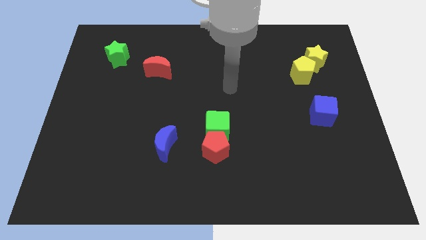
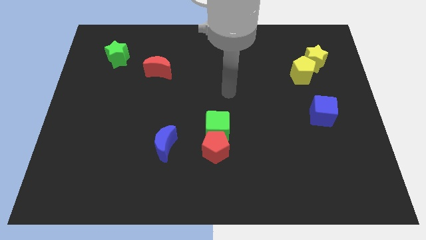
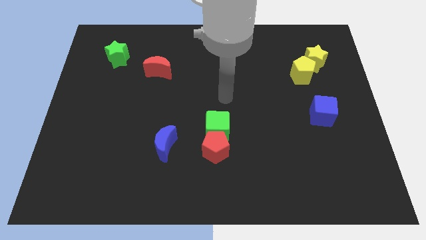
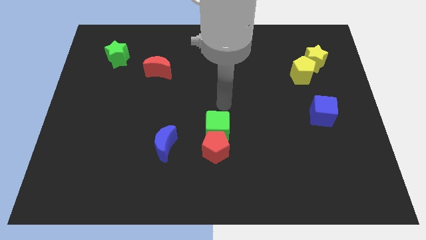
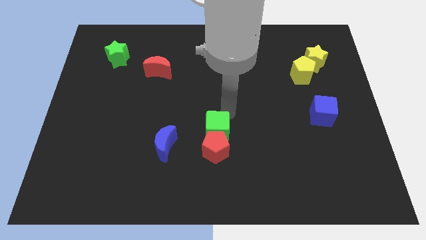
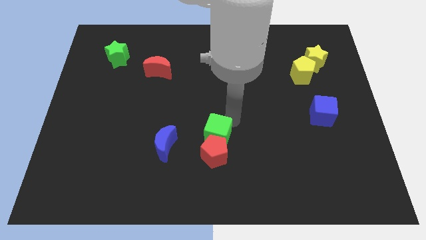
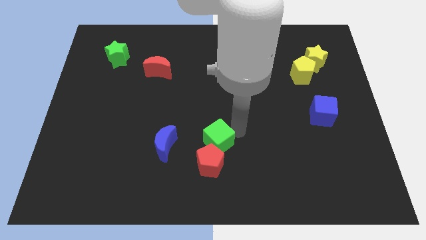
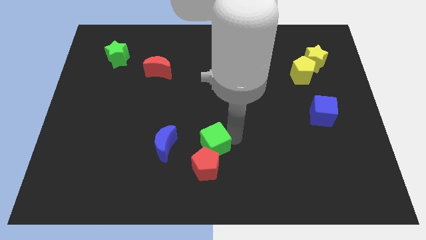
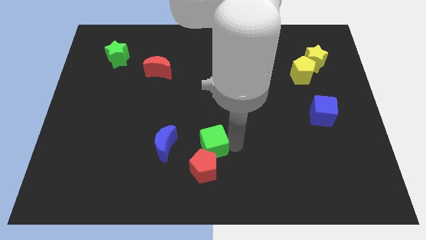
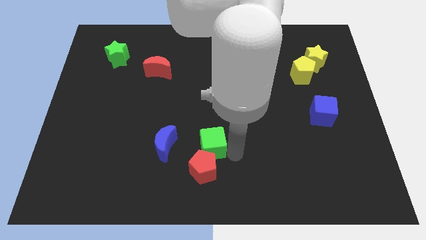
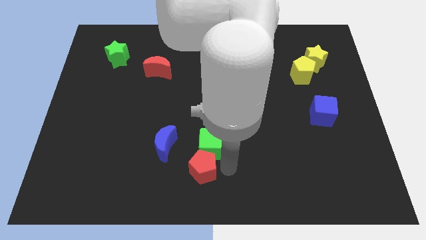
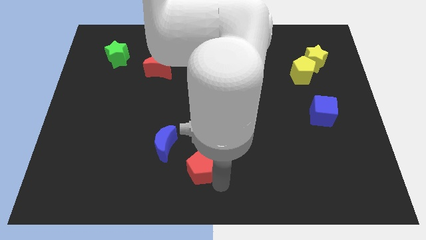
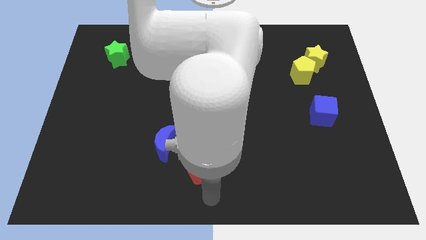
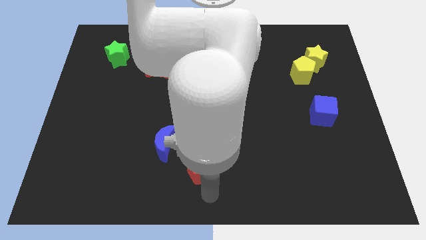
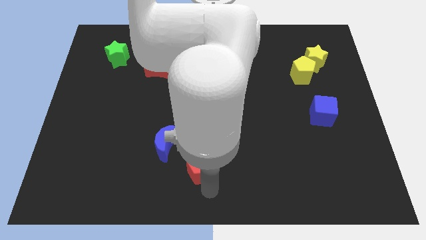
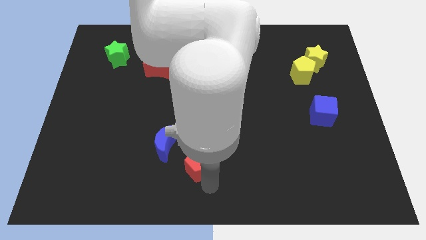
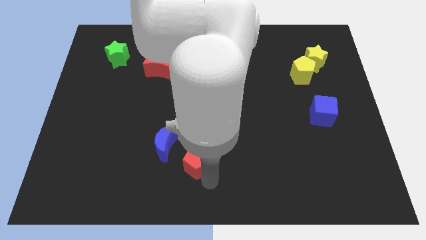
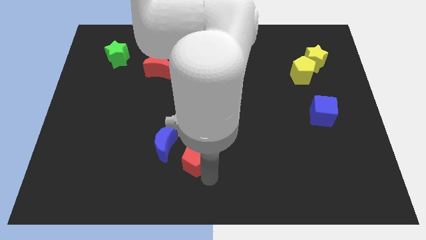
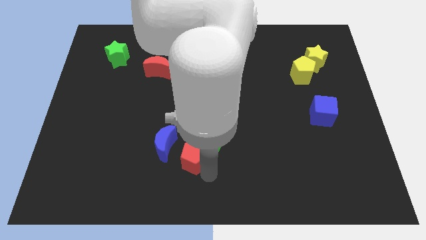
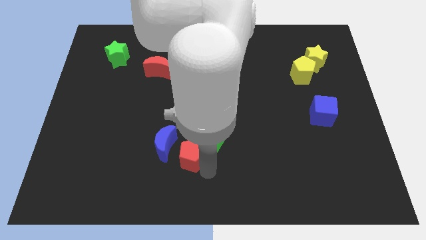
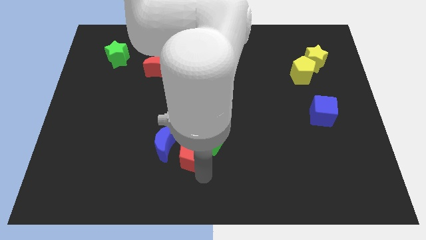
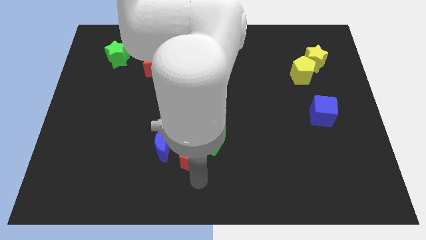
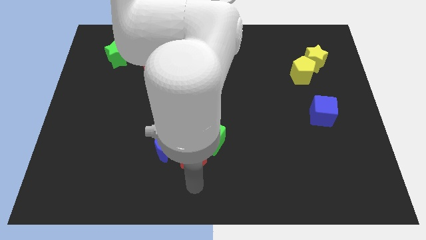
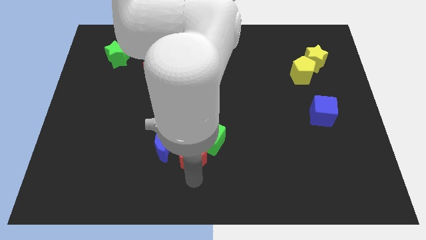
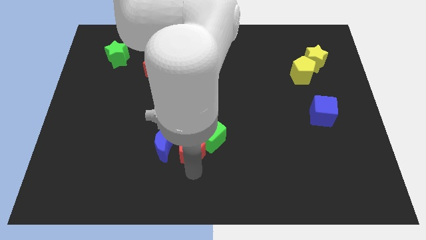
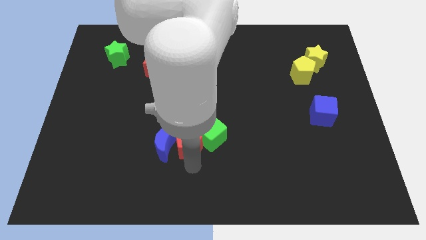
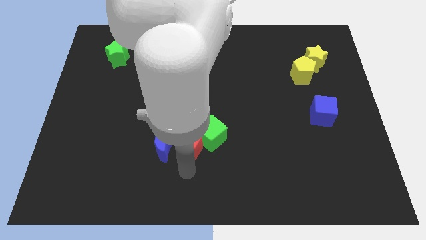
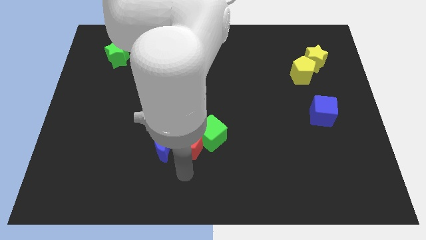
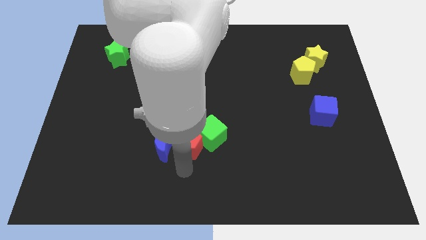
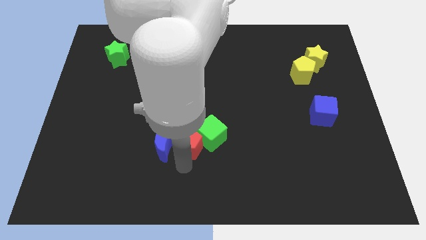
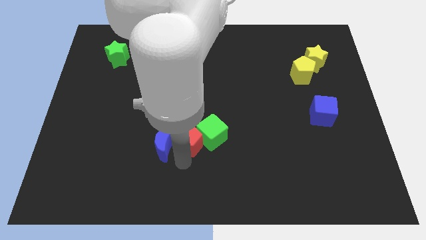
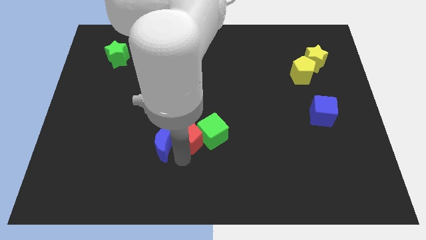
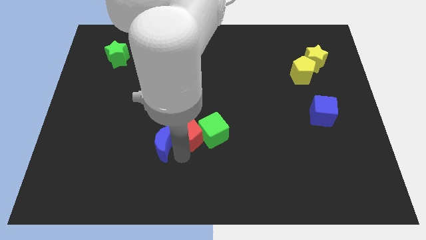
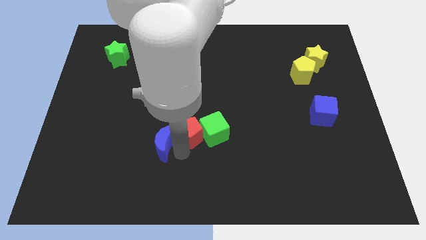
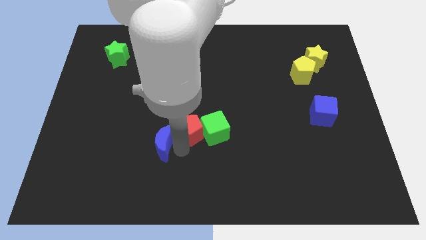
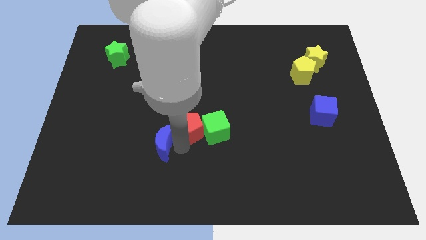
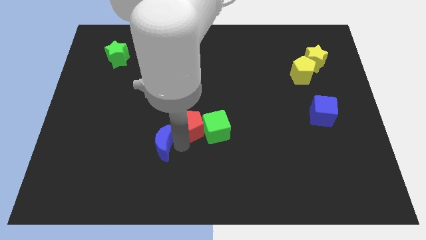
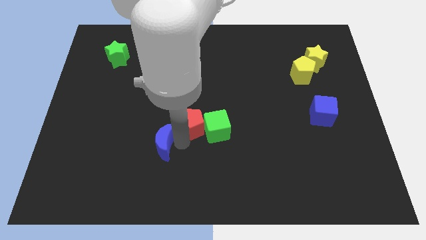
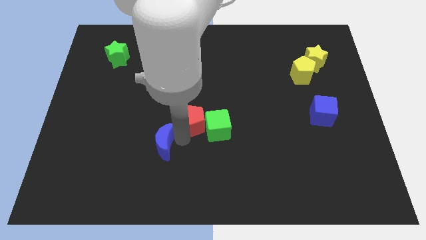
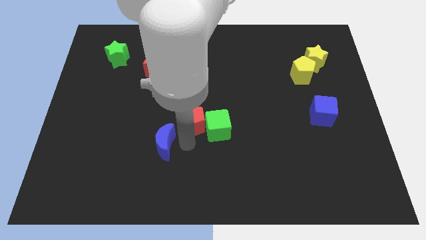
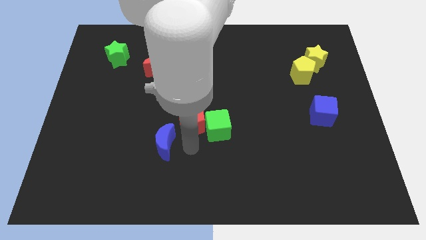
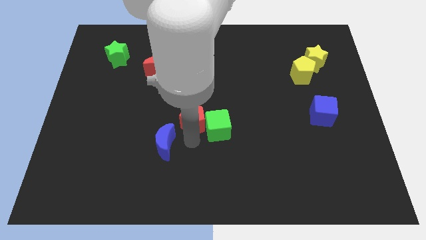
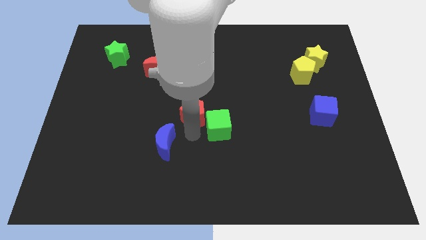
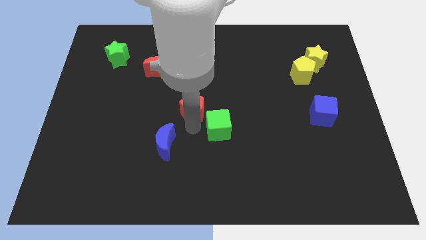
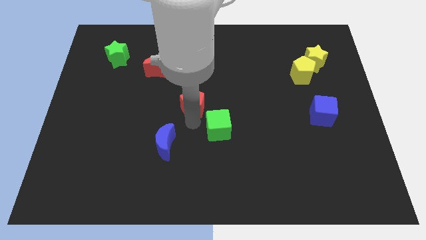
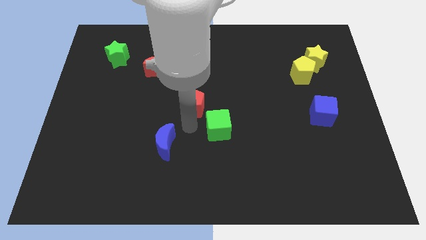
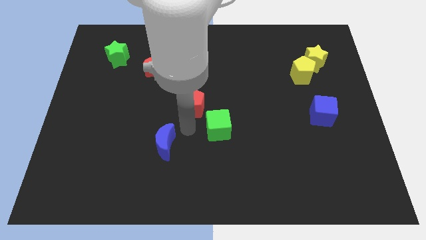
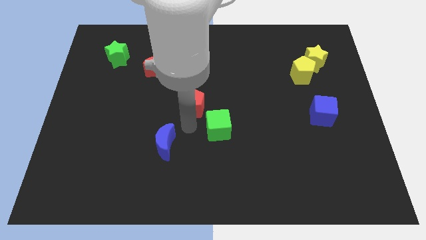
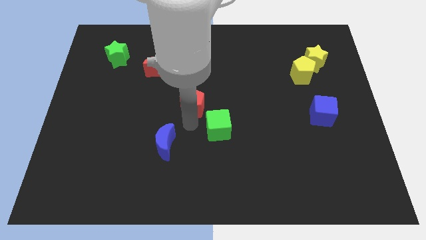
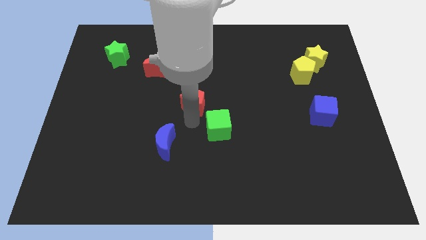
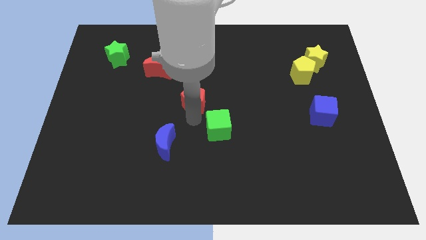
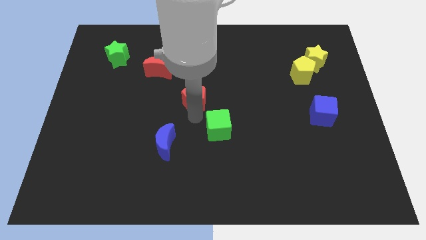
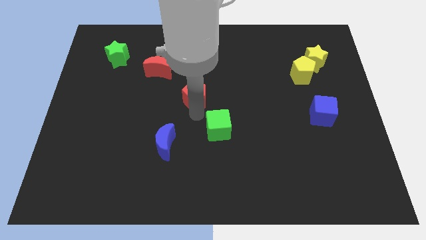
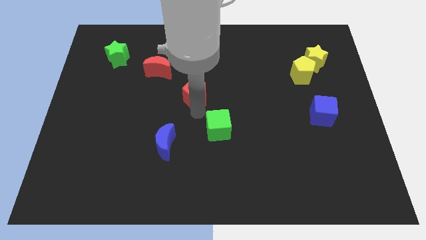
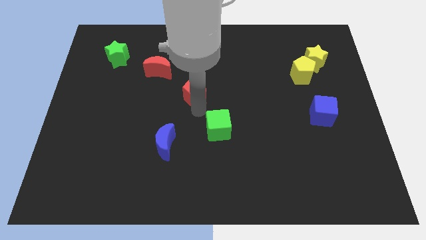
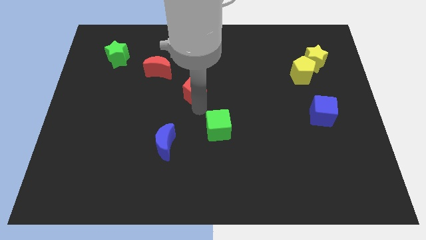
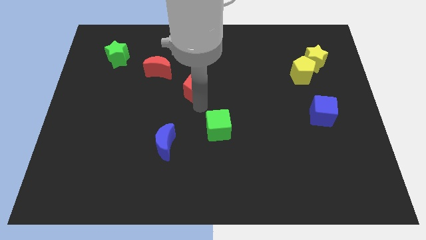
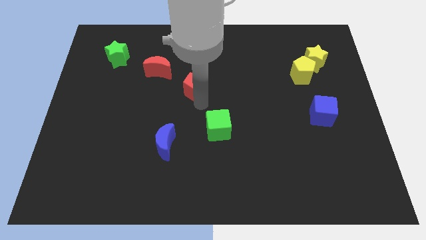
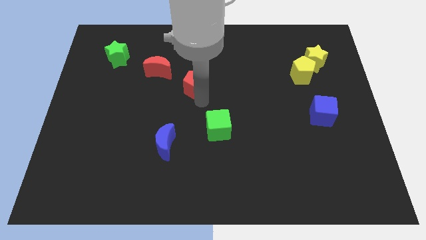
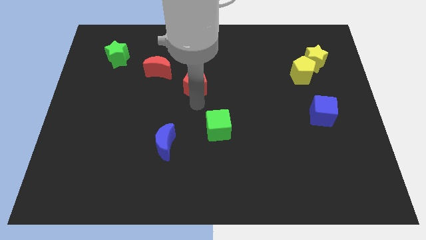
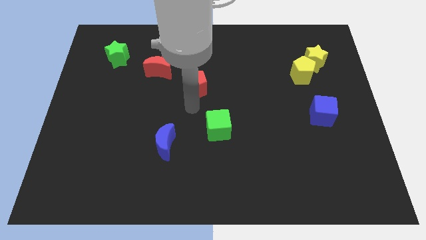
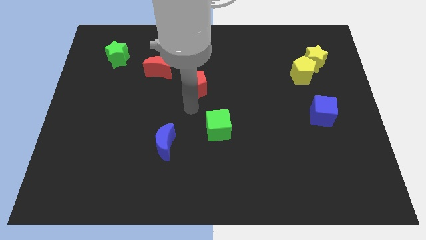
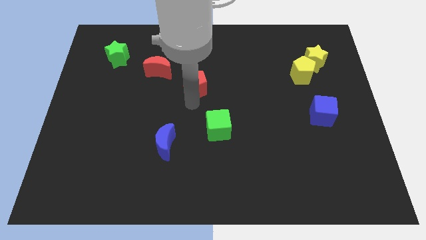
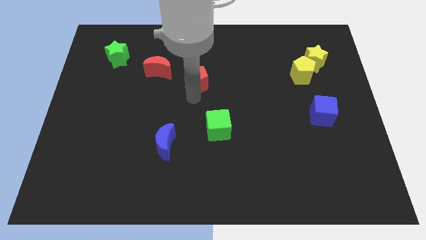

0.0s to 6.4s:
slide the red pentagon to the right side of the red moon
